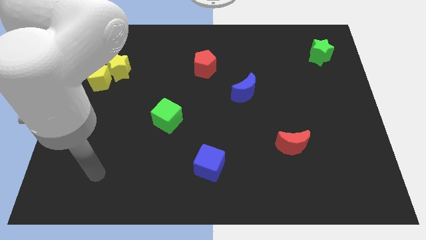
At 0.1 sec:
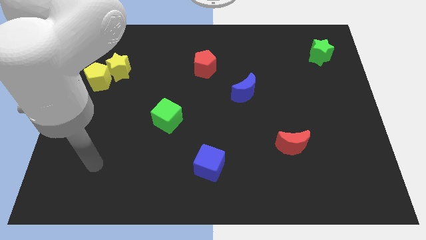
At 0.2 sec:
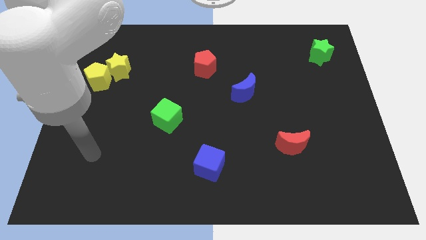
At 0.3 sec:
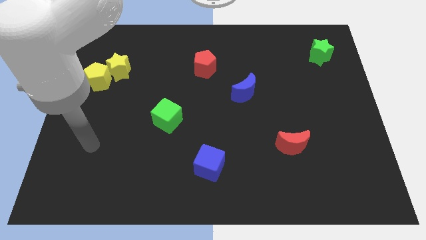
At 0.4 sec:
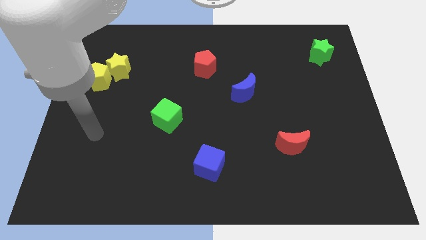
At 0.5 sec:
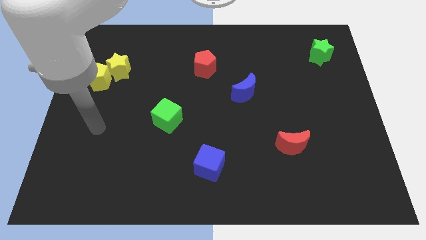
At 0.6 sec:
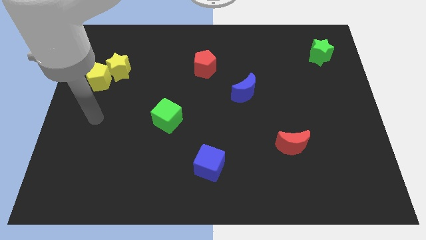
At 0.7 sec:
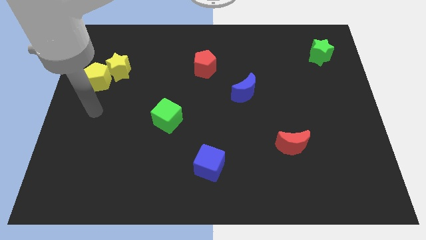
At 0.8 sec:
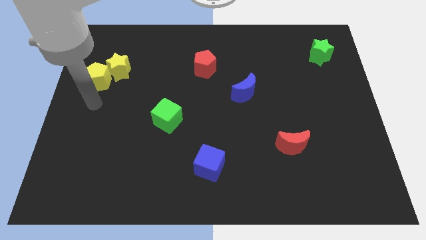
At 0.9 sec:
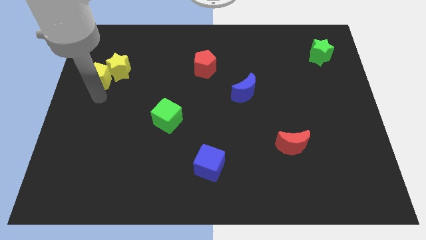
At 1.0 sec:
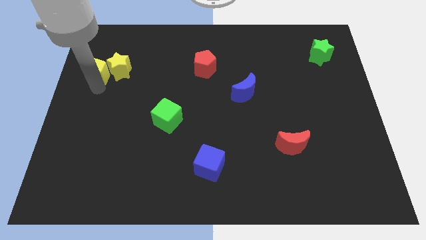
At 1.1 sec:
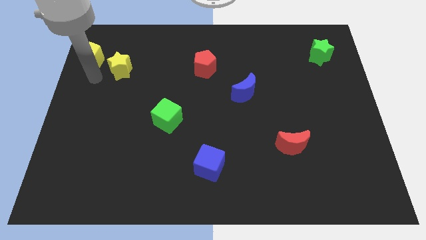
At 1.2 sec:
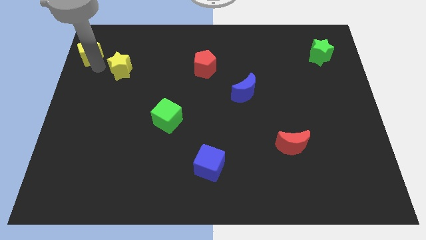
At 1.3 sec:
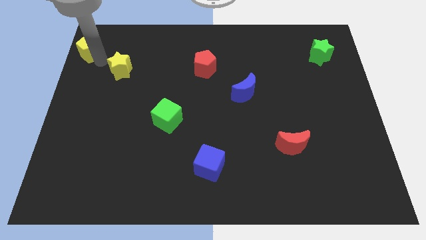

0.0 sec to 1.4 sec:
pull the yellow star apart from the yellow pentagon

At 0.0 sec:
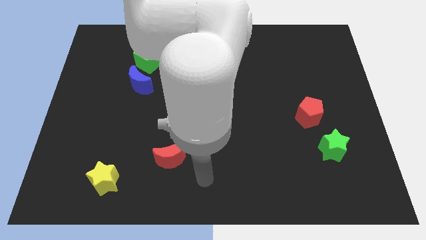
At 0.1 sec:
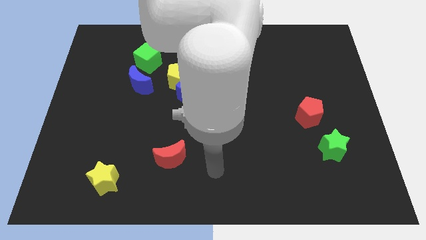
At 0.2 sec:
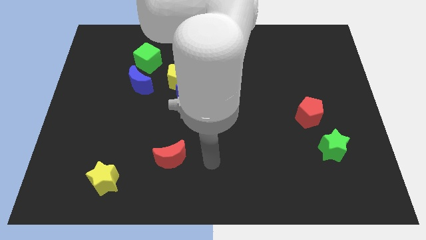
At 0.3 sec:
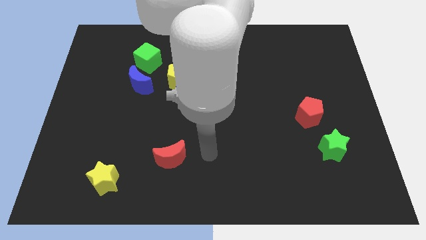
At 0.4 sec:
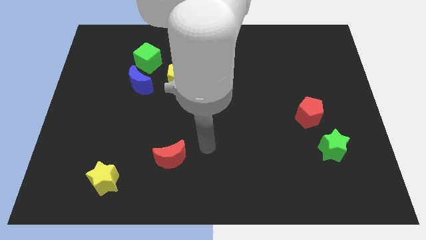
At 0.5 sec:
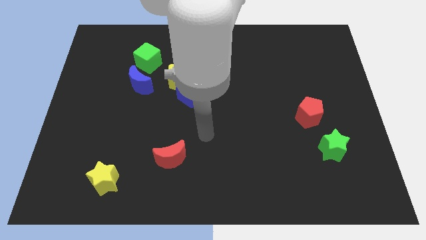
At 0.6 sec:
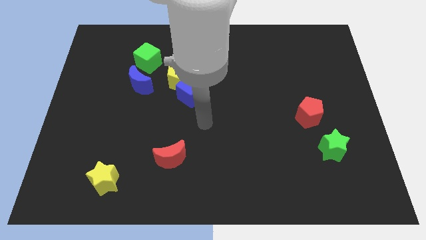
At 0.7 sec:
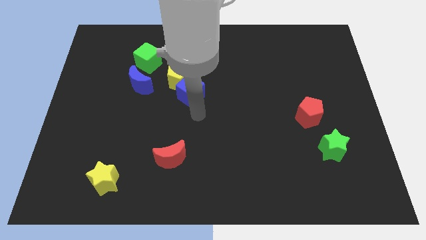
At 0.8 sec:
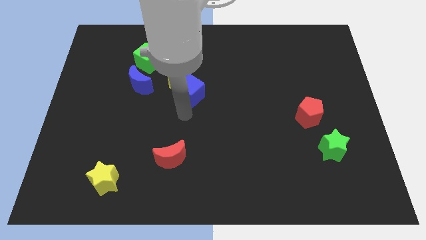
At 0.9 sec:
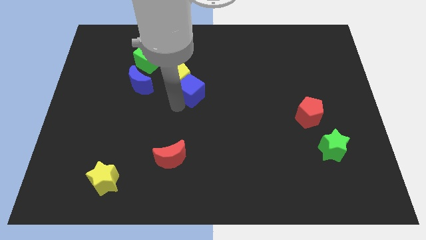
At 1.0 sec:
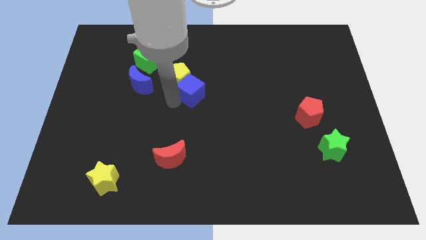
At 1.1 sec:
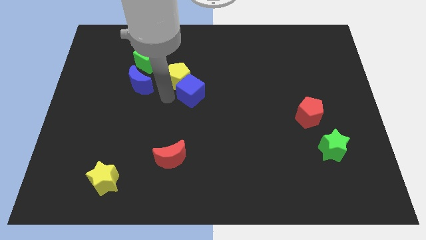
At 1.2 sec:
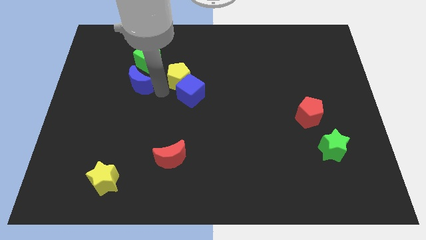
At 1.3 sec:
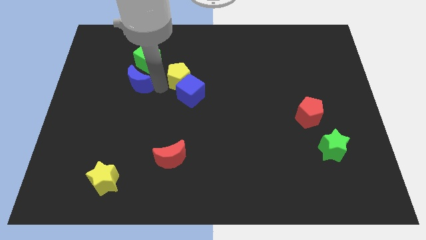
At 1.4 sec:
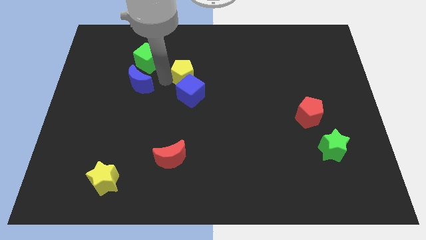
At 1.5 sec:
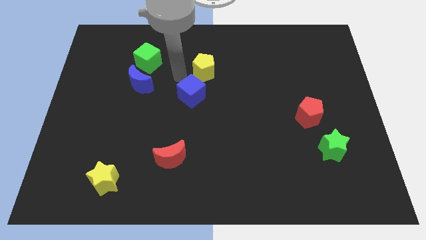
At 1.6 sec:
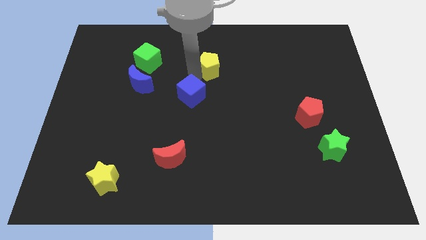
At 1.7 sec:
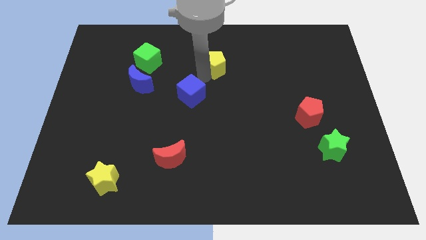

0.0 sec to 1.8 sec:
separate the blue cube from the yellow pentagon

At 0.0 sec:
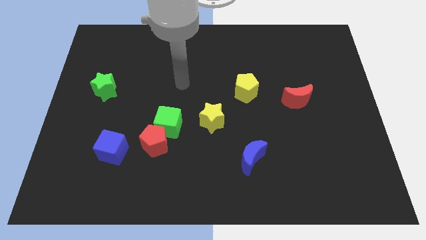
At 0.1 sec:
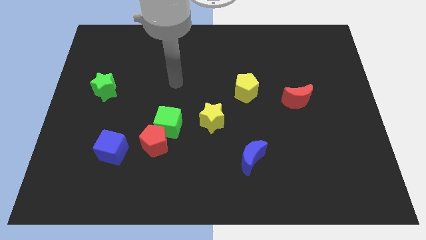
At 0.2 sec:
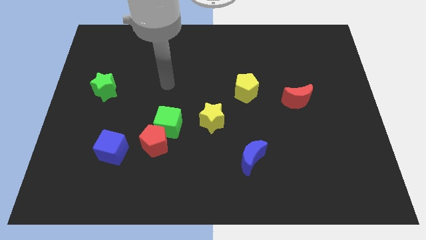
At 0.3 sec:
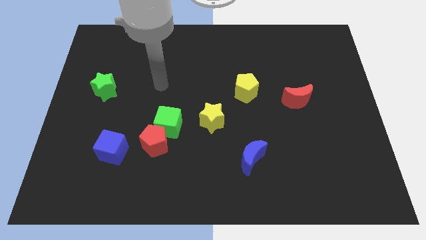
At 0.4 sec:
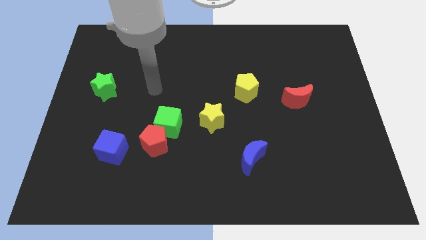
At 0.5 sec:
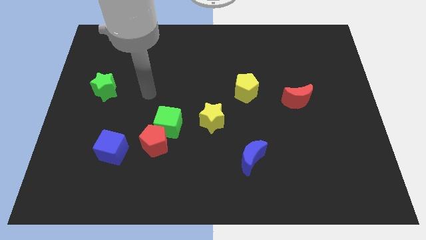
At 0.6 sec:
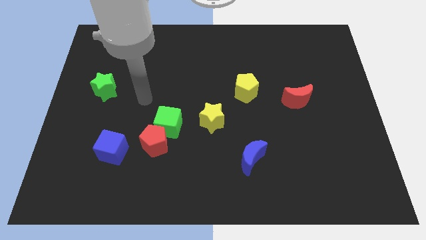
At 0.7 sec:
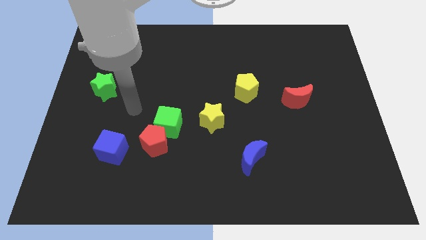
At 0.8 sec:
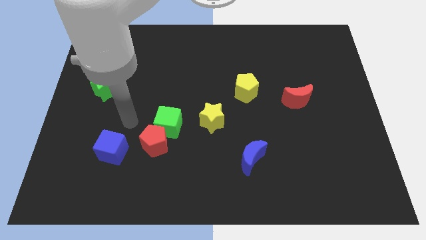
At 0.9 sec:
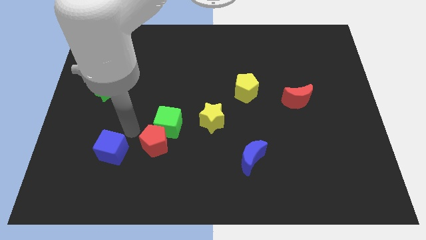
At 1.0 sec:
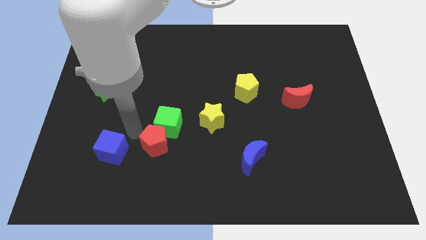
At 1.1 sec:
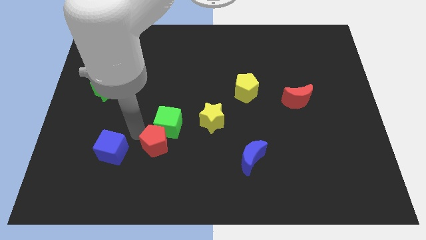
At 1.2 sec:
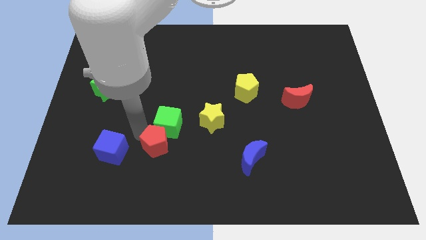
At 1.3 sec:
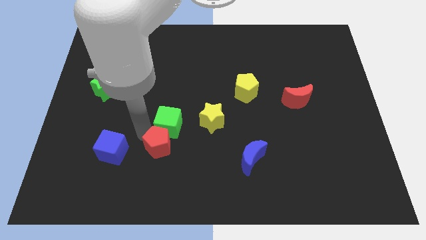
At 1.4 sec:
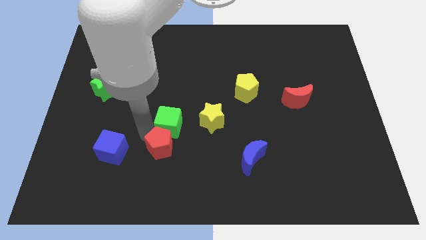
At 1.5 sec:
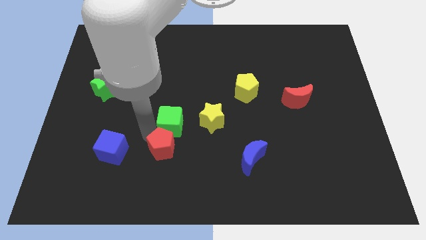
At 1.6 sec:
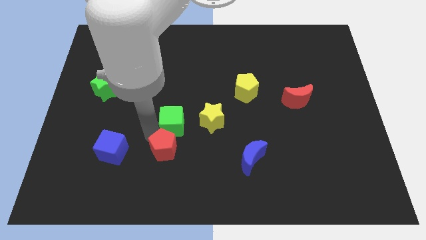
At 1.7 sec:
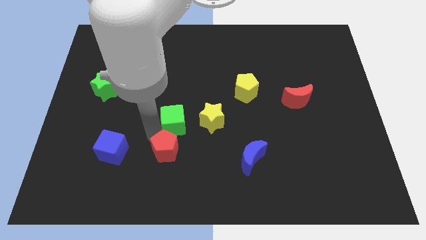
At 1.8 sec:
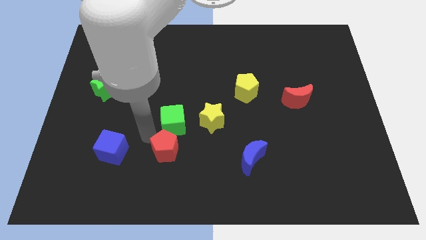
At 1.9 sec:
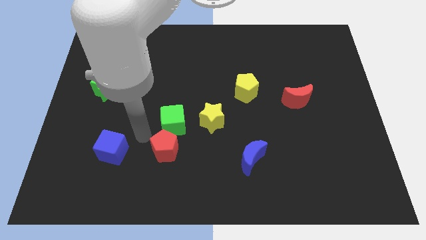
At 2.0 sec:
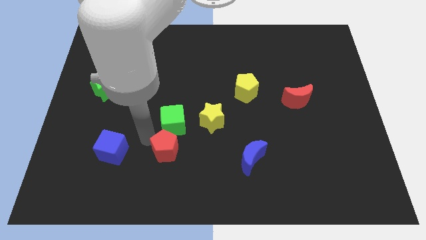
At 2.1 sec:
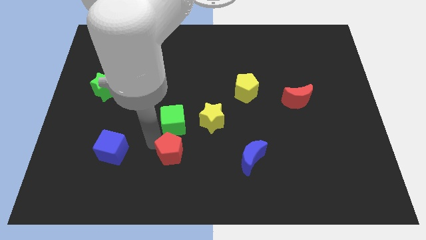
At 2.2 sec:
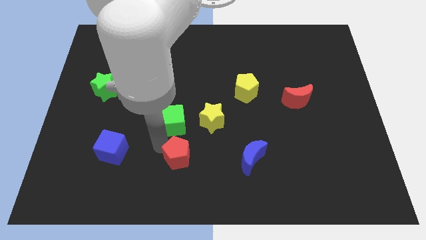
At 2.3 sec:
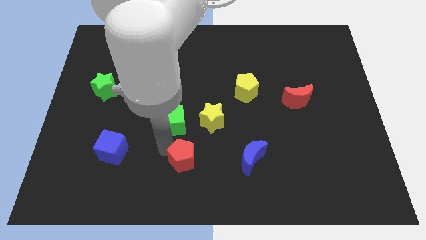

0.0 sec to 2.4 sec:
move the red pentagon away from the green cube and blue cube

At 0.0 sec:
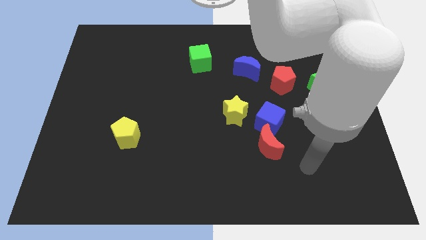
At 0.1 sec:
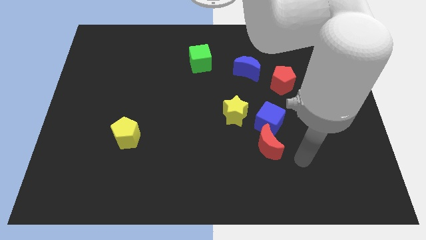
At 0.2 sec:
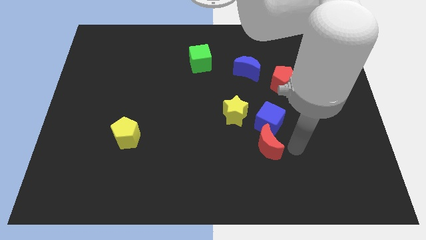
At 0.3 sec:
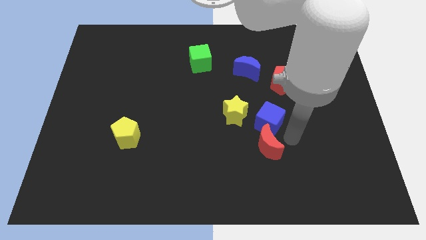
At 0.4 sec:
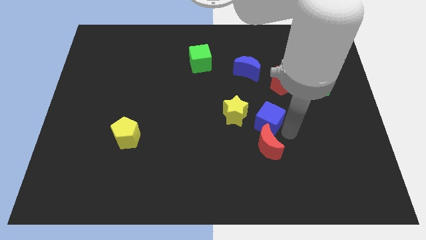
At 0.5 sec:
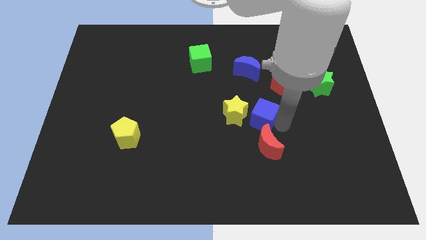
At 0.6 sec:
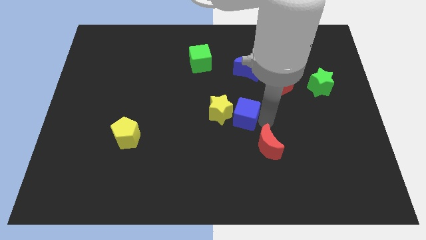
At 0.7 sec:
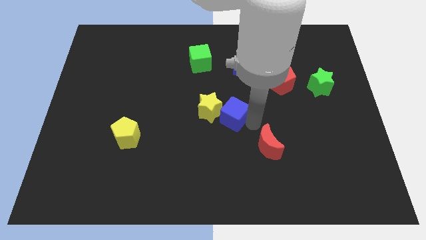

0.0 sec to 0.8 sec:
separate the red moon from the blue cube

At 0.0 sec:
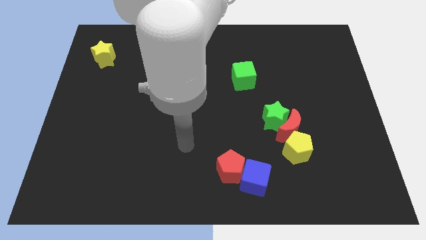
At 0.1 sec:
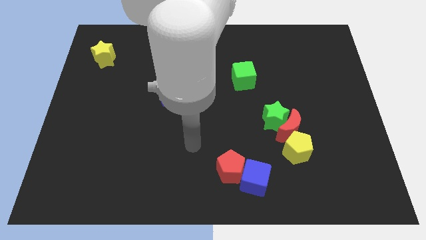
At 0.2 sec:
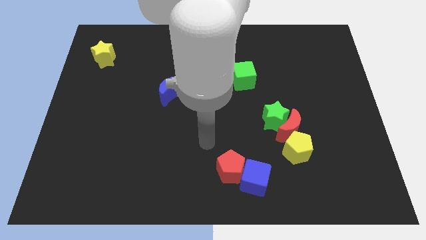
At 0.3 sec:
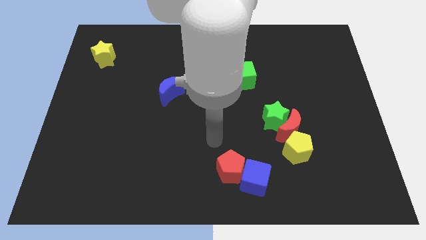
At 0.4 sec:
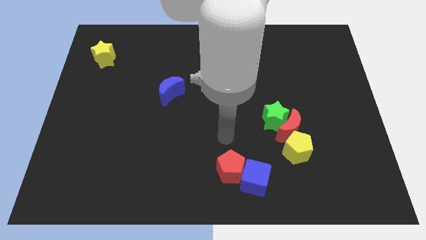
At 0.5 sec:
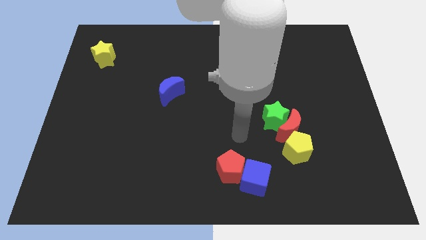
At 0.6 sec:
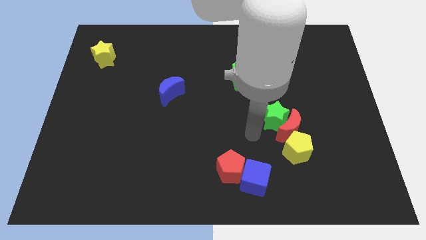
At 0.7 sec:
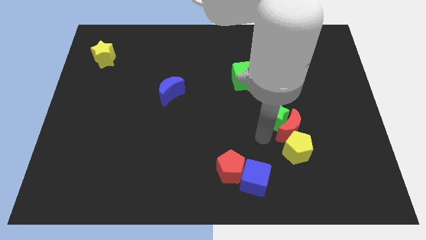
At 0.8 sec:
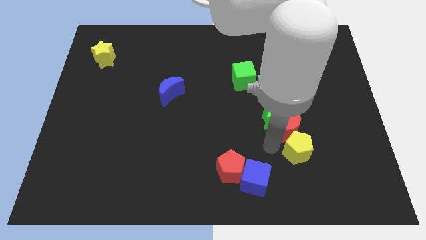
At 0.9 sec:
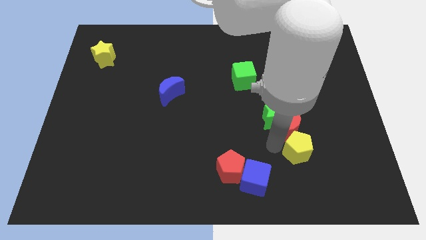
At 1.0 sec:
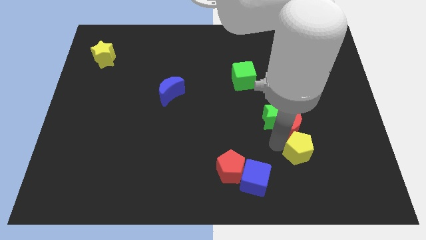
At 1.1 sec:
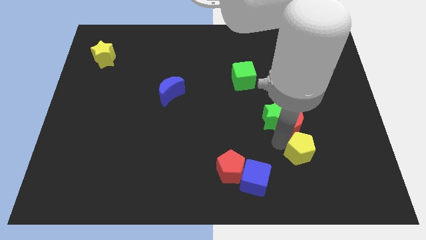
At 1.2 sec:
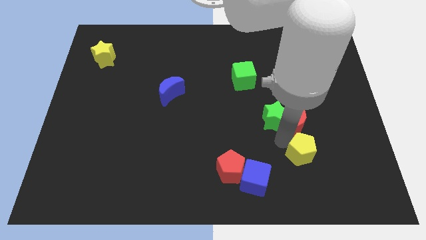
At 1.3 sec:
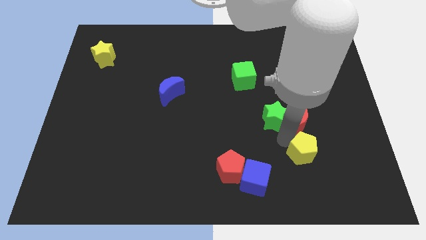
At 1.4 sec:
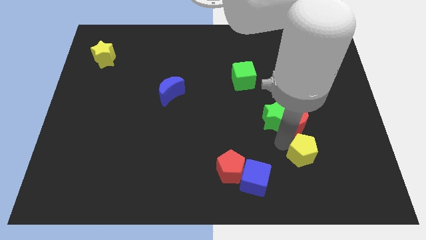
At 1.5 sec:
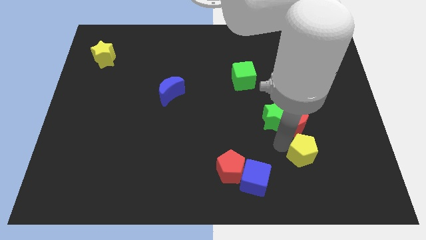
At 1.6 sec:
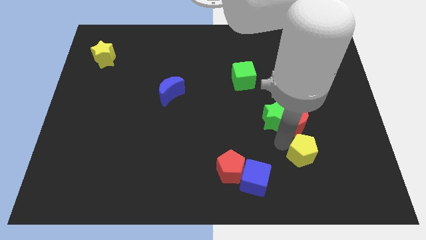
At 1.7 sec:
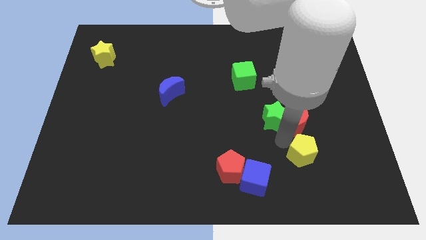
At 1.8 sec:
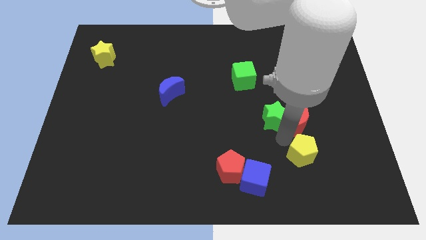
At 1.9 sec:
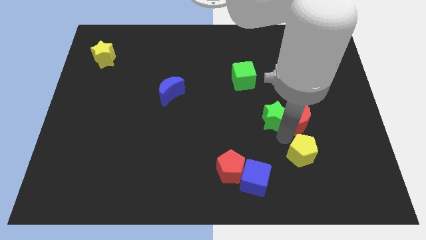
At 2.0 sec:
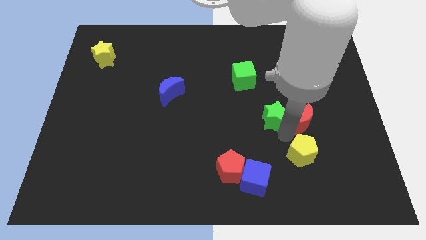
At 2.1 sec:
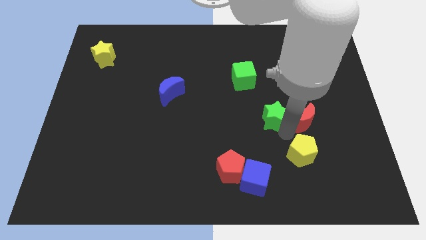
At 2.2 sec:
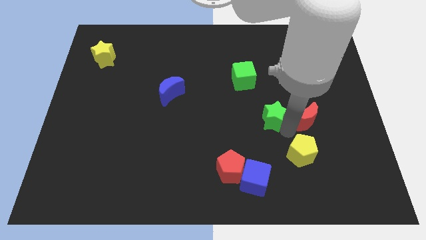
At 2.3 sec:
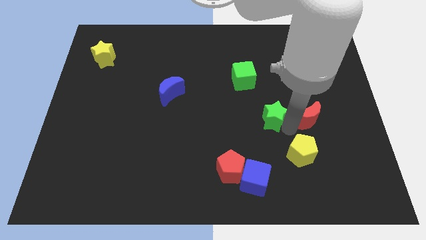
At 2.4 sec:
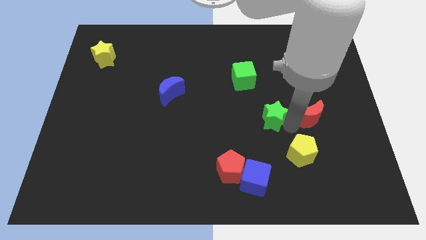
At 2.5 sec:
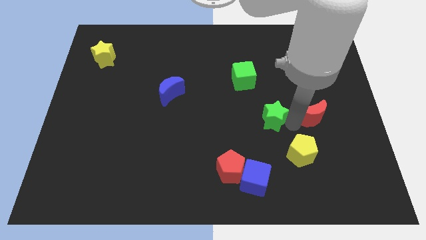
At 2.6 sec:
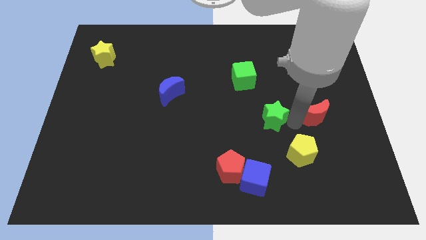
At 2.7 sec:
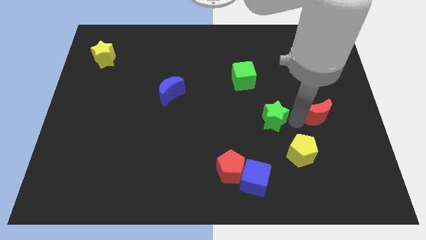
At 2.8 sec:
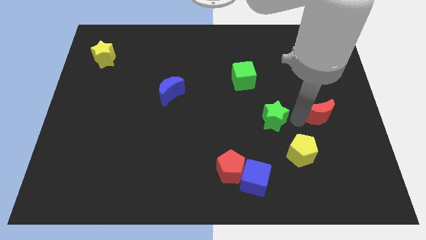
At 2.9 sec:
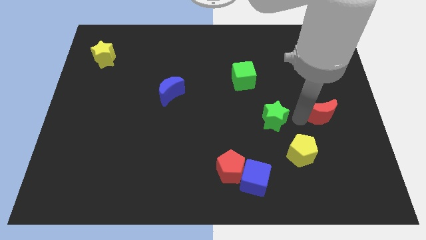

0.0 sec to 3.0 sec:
separate the red moon from the green star and yellow pentagon
